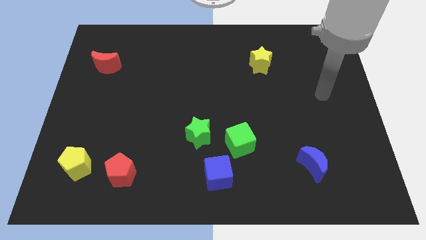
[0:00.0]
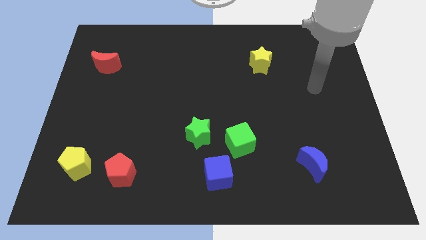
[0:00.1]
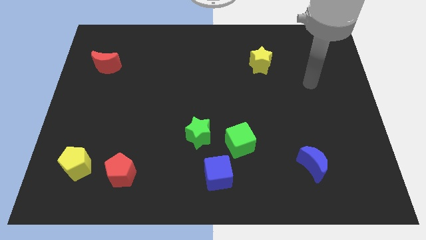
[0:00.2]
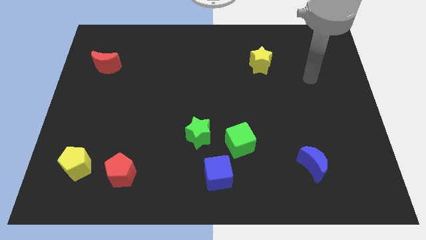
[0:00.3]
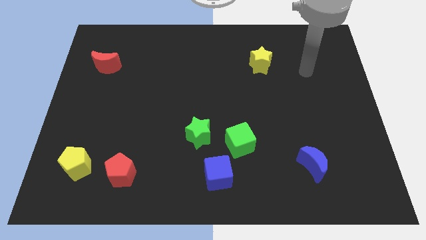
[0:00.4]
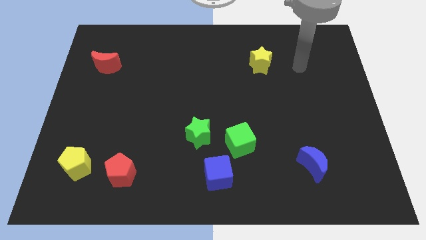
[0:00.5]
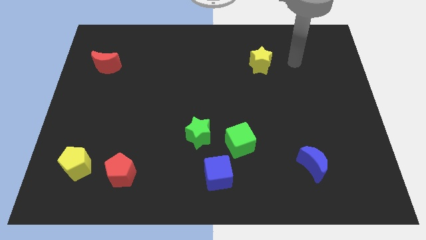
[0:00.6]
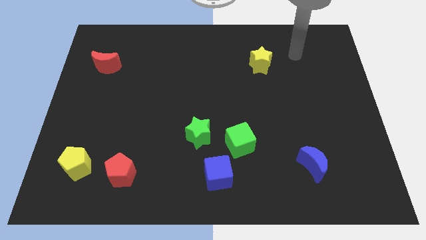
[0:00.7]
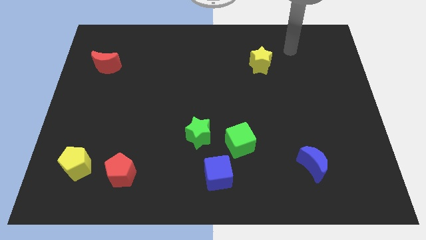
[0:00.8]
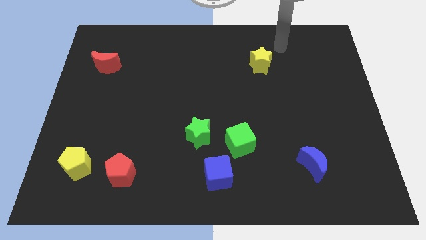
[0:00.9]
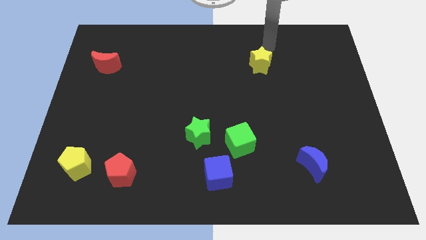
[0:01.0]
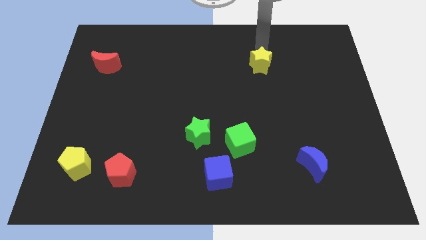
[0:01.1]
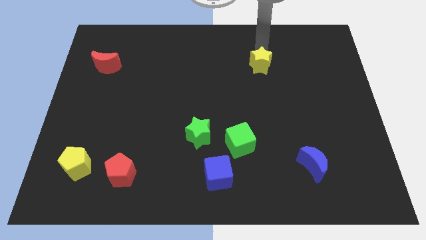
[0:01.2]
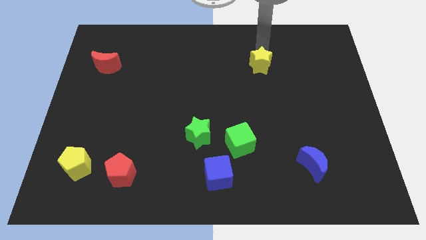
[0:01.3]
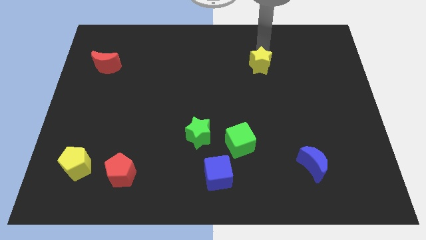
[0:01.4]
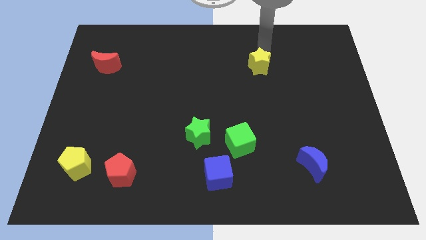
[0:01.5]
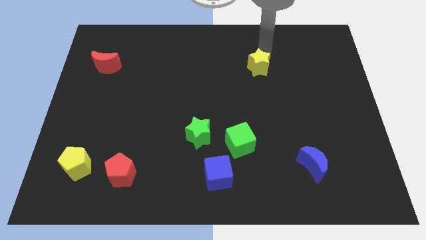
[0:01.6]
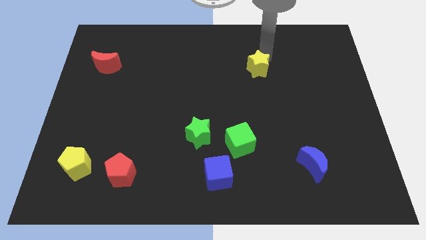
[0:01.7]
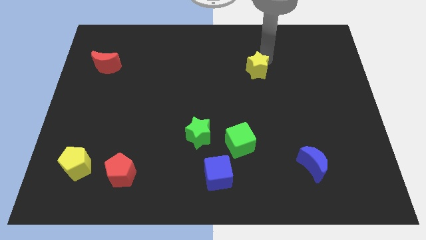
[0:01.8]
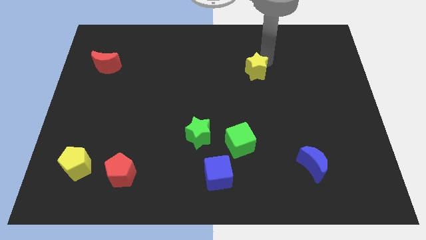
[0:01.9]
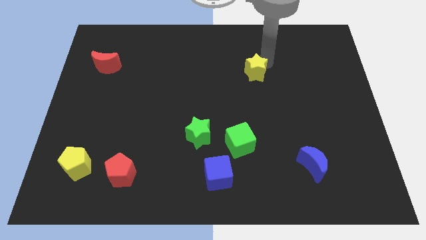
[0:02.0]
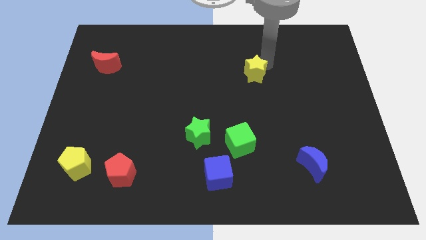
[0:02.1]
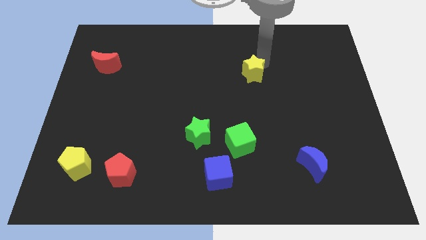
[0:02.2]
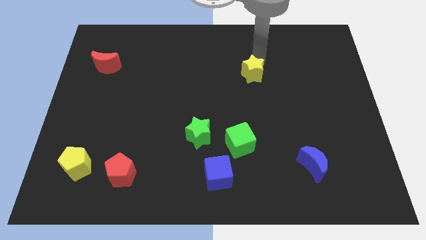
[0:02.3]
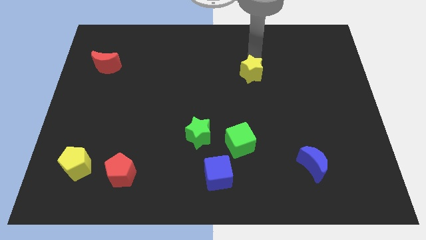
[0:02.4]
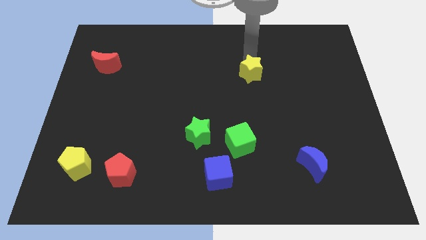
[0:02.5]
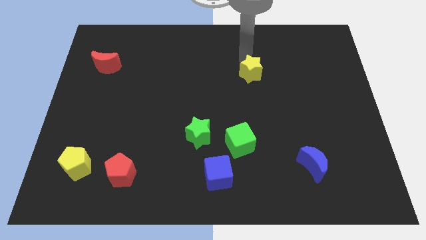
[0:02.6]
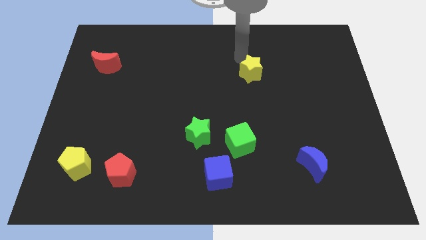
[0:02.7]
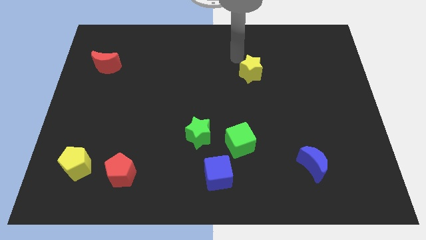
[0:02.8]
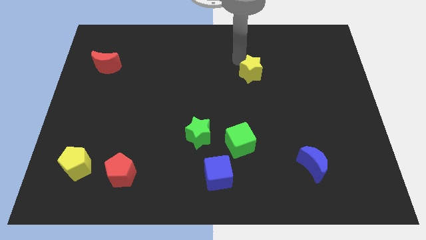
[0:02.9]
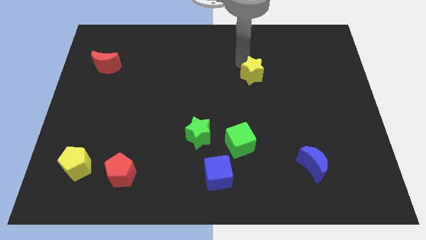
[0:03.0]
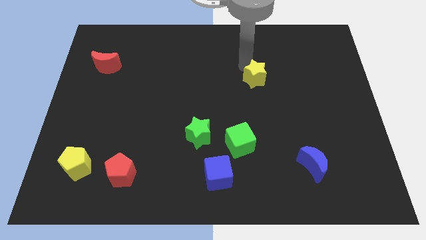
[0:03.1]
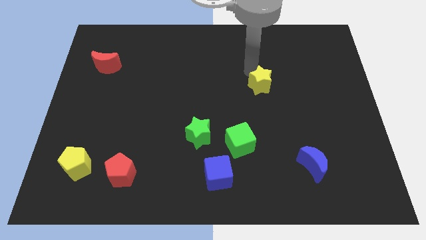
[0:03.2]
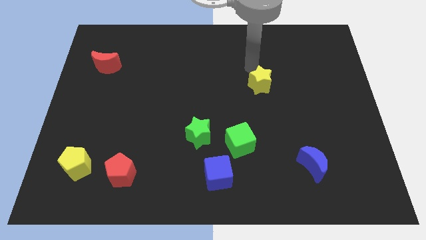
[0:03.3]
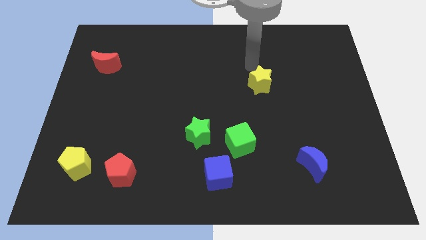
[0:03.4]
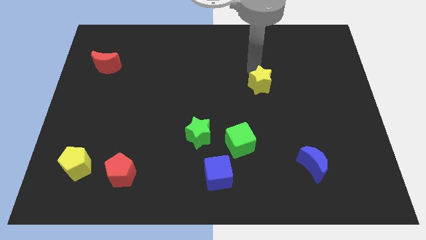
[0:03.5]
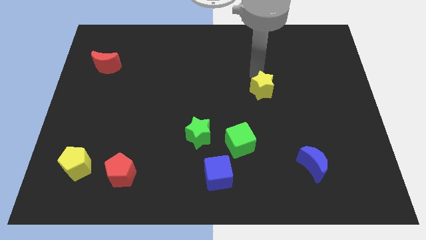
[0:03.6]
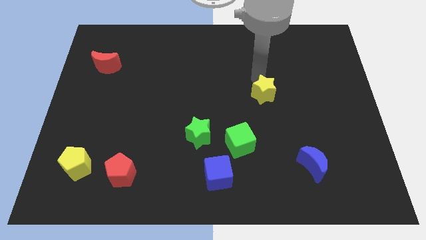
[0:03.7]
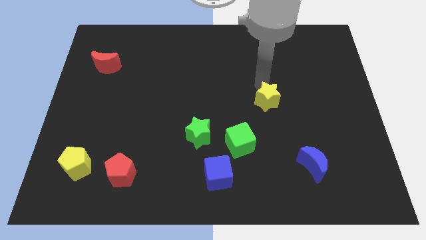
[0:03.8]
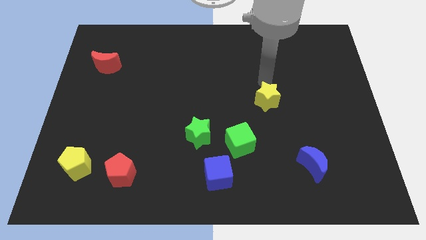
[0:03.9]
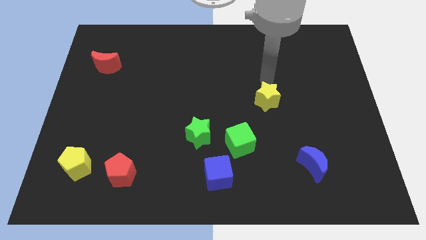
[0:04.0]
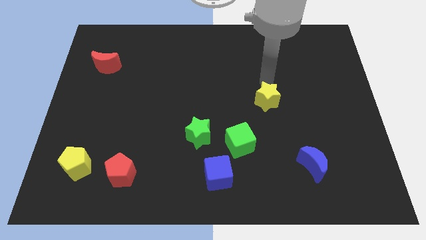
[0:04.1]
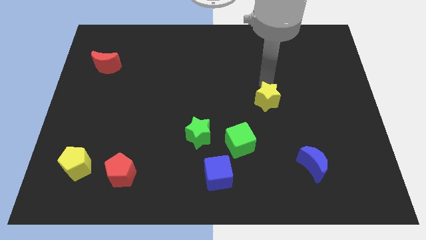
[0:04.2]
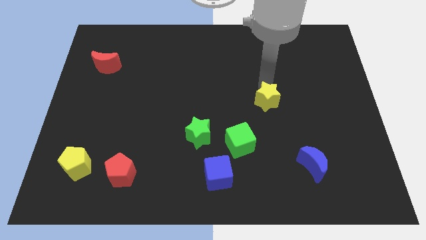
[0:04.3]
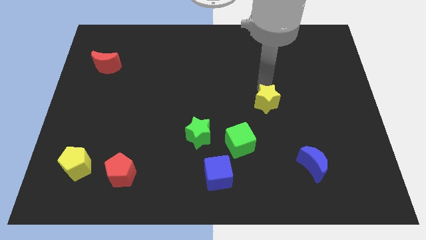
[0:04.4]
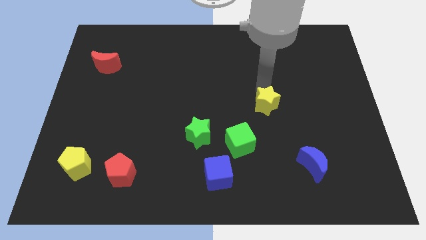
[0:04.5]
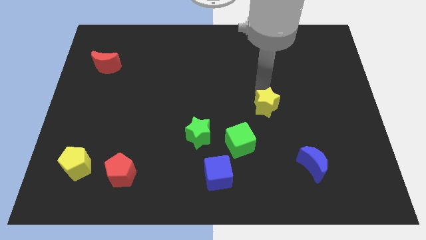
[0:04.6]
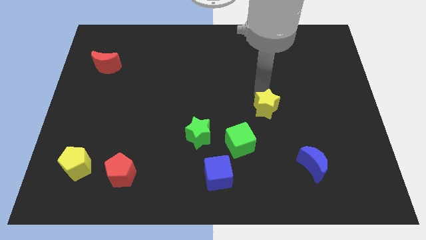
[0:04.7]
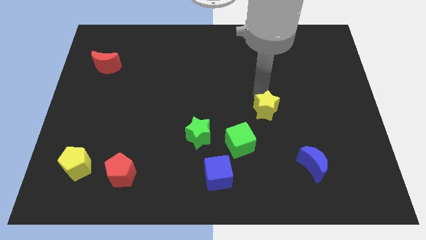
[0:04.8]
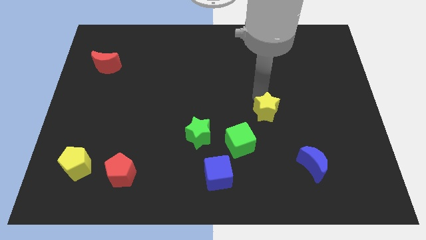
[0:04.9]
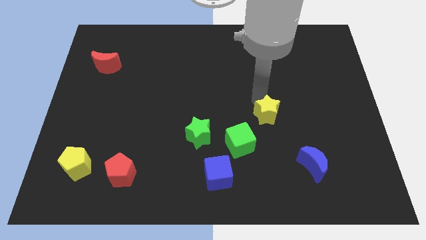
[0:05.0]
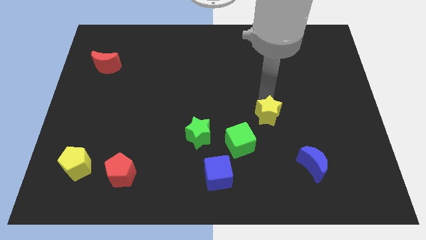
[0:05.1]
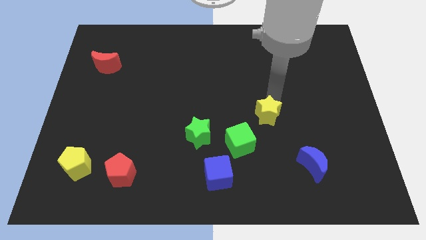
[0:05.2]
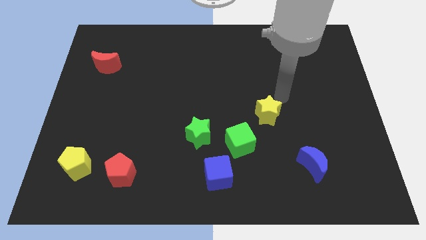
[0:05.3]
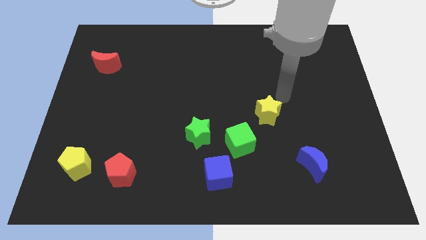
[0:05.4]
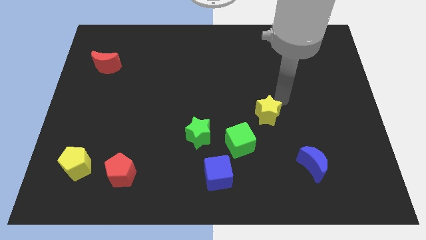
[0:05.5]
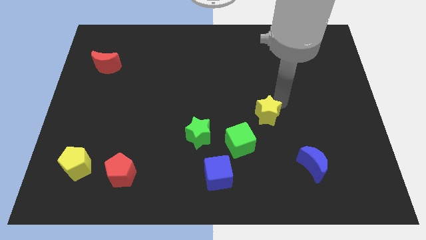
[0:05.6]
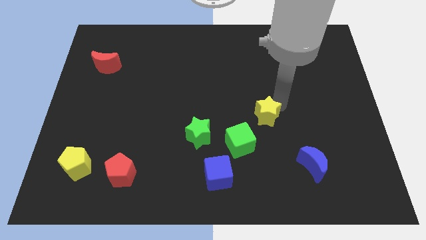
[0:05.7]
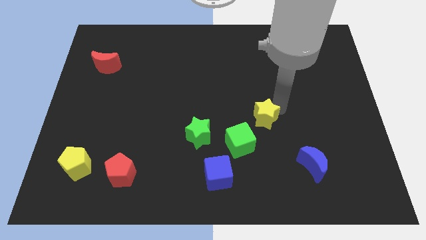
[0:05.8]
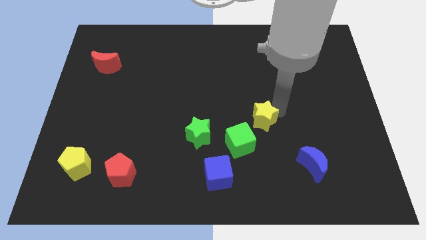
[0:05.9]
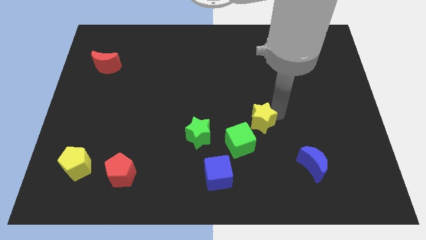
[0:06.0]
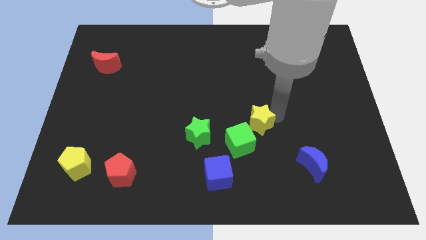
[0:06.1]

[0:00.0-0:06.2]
slide the yellow star right of the green star

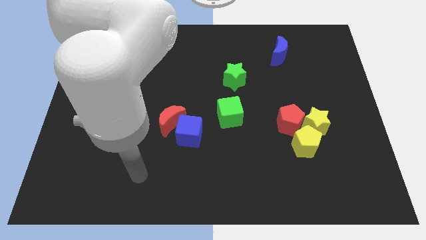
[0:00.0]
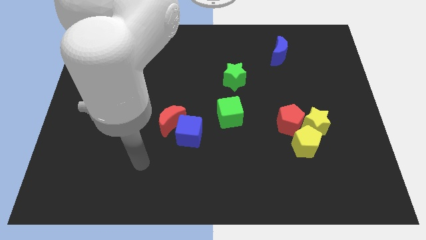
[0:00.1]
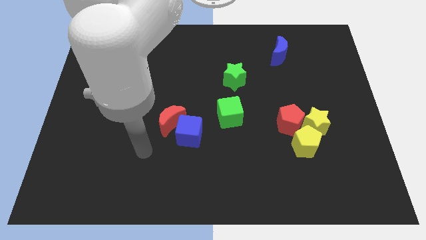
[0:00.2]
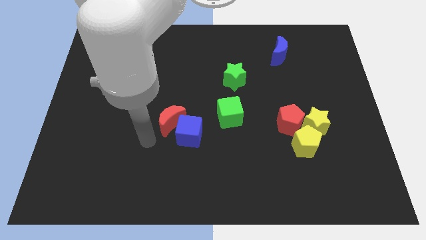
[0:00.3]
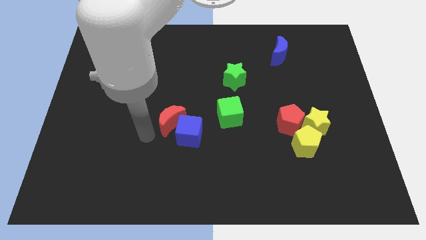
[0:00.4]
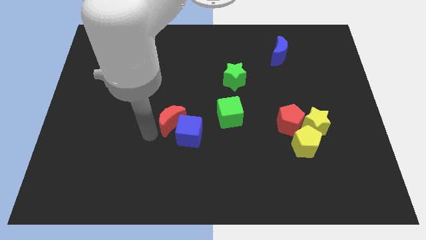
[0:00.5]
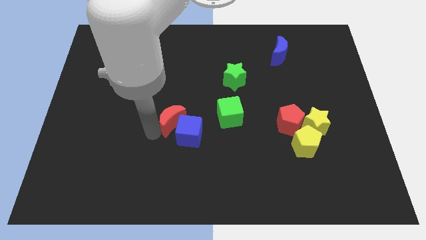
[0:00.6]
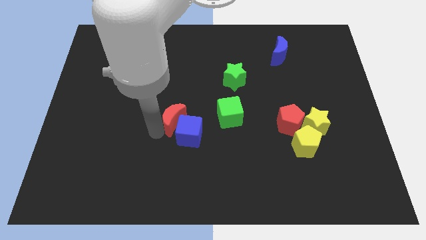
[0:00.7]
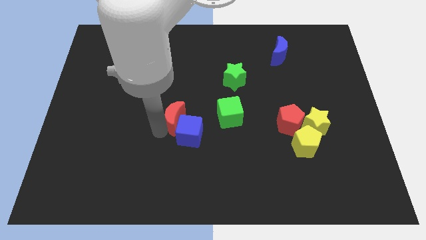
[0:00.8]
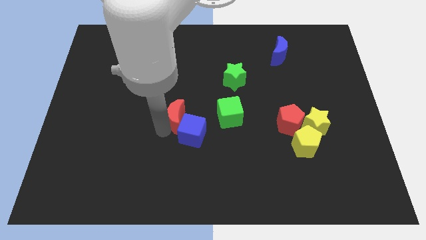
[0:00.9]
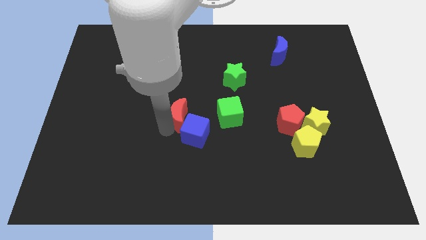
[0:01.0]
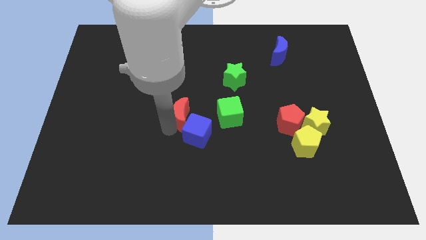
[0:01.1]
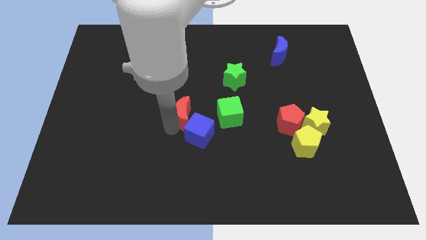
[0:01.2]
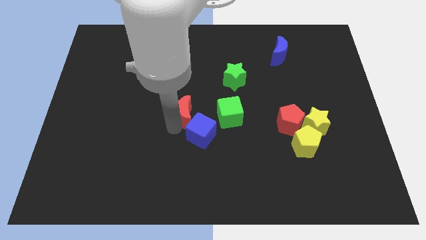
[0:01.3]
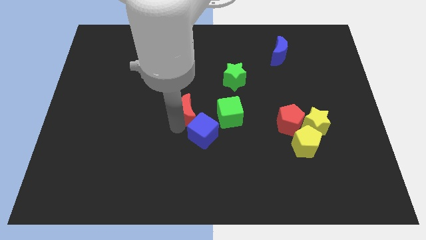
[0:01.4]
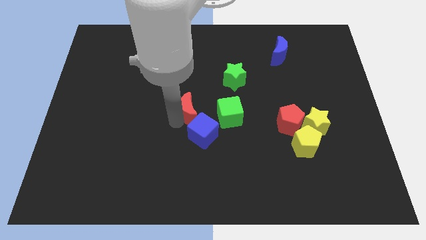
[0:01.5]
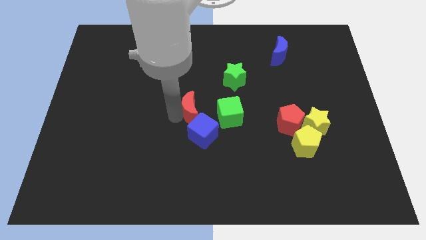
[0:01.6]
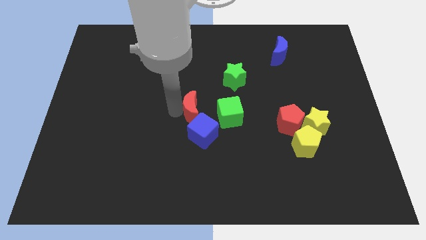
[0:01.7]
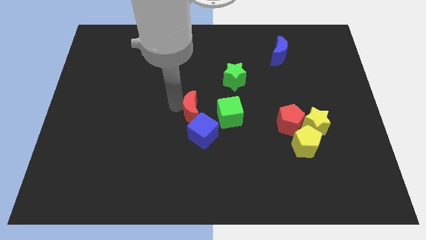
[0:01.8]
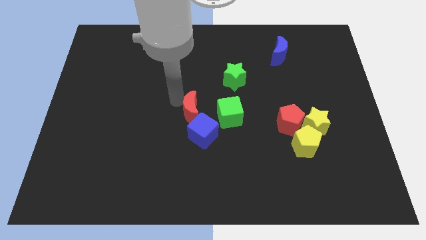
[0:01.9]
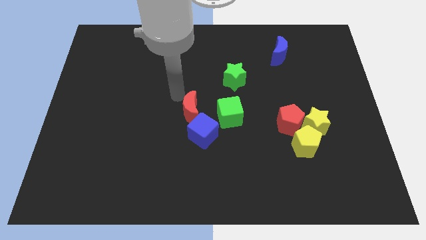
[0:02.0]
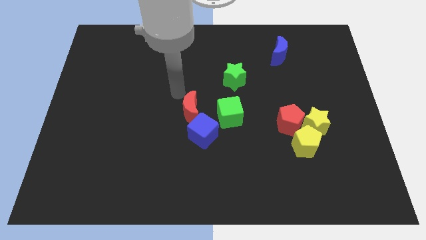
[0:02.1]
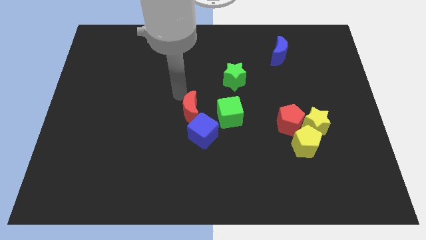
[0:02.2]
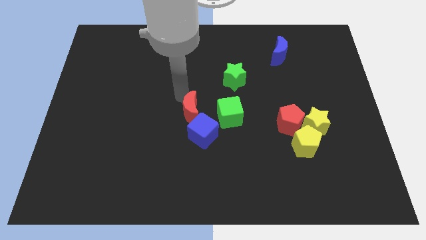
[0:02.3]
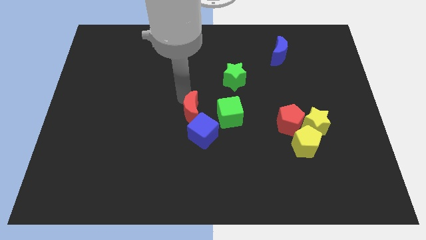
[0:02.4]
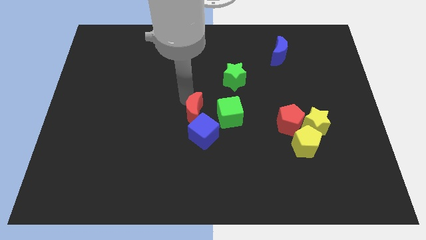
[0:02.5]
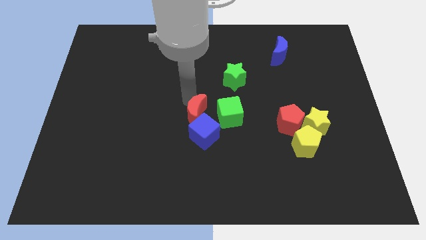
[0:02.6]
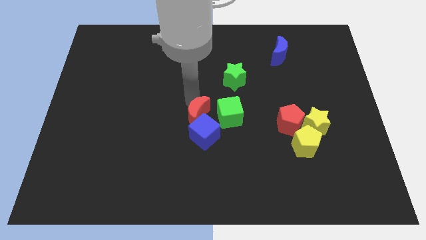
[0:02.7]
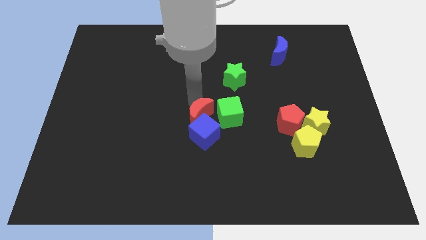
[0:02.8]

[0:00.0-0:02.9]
put the red moon to the bottom left side of the green cube
